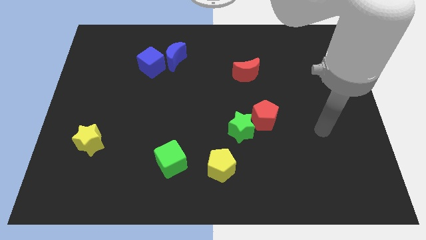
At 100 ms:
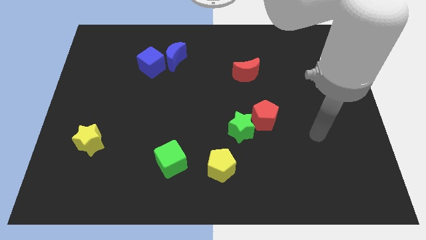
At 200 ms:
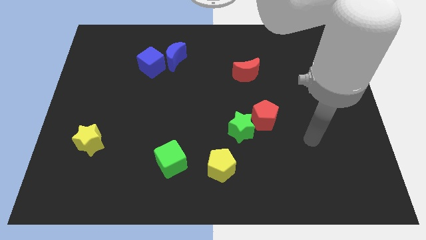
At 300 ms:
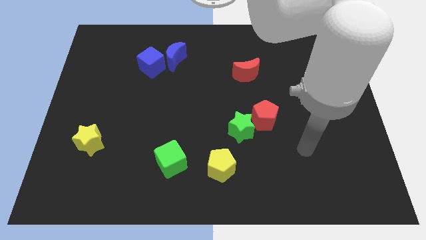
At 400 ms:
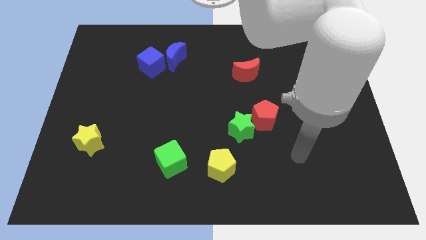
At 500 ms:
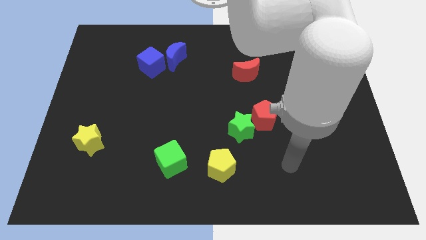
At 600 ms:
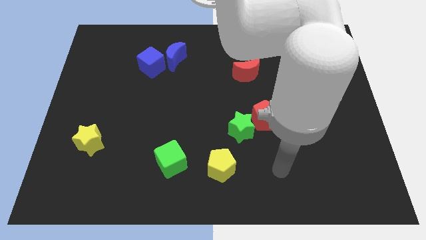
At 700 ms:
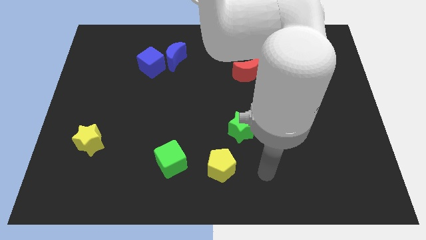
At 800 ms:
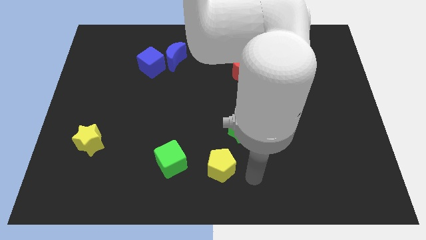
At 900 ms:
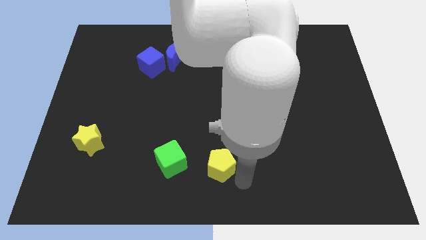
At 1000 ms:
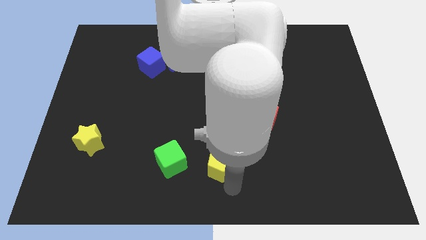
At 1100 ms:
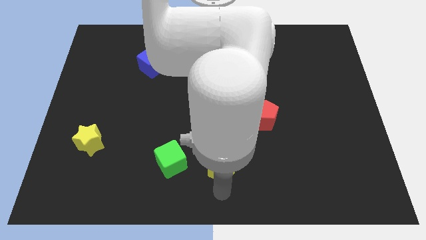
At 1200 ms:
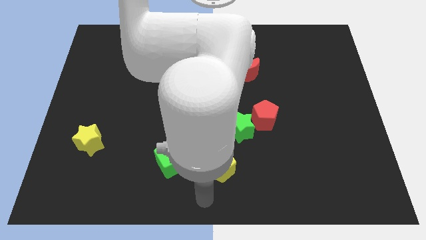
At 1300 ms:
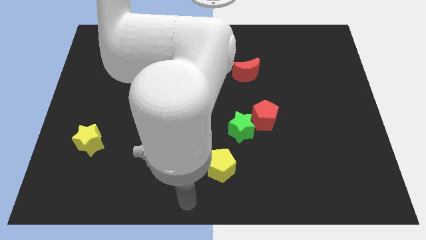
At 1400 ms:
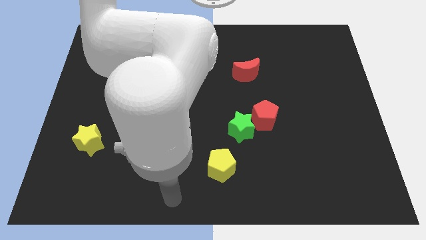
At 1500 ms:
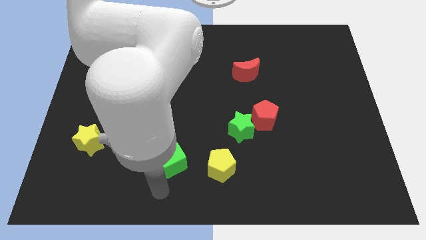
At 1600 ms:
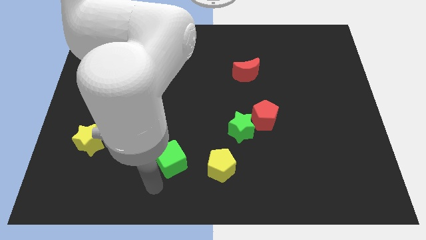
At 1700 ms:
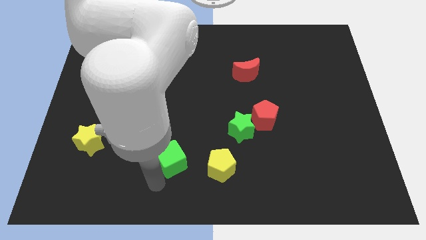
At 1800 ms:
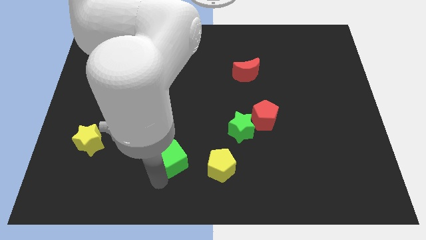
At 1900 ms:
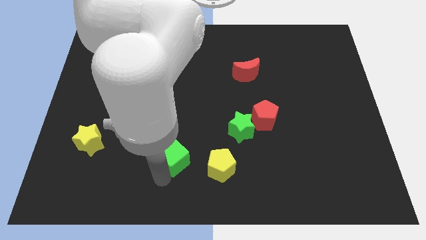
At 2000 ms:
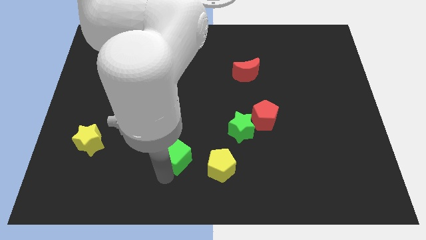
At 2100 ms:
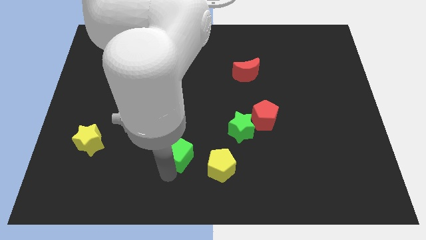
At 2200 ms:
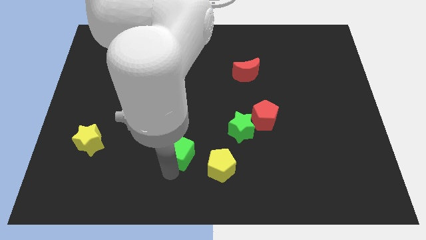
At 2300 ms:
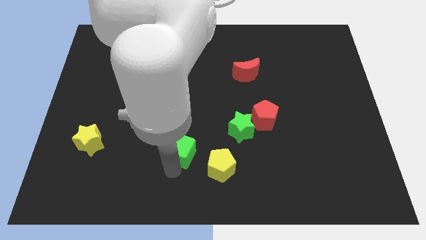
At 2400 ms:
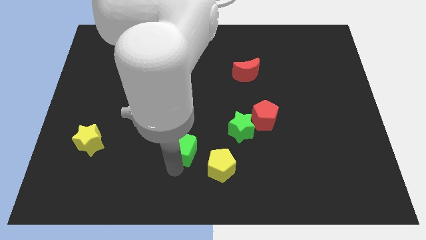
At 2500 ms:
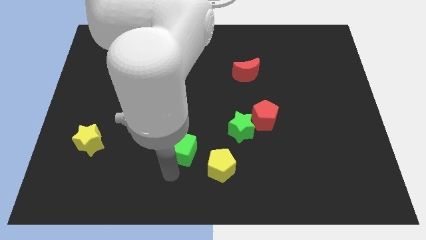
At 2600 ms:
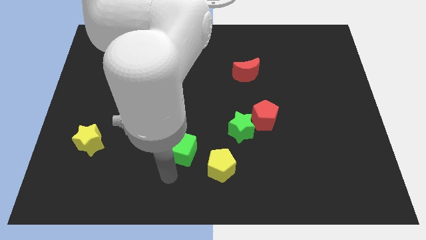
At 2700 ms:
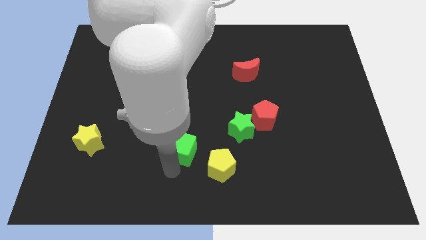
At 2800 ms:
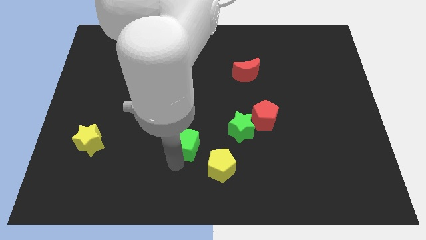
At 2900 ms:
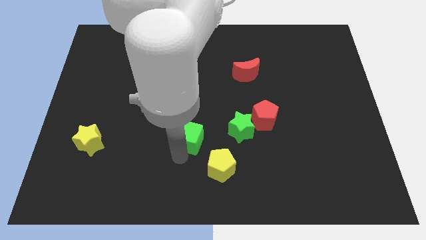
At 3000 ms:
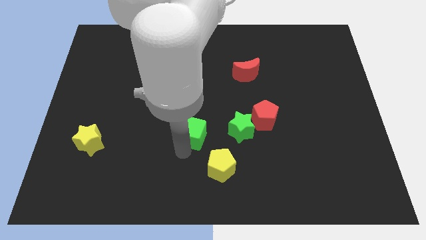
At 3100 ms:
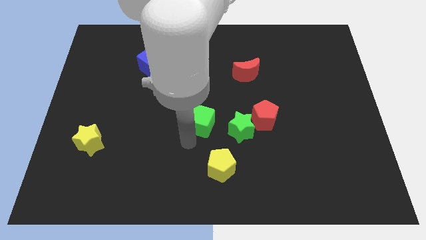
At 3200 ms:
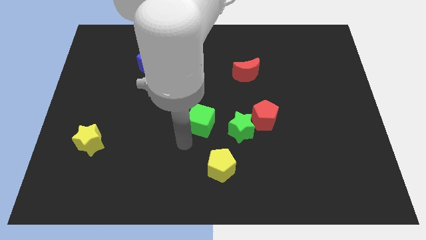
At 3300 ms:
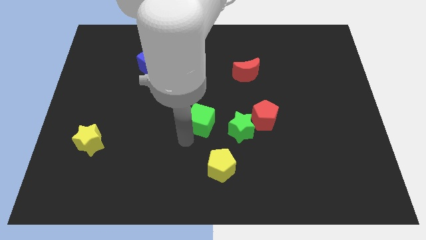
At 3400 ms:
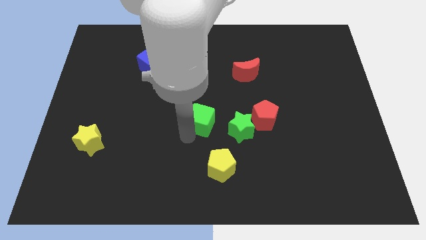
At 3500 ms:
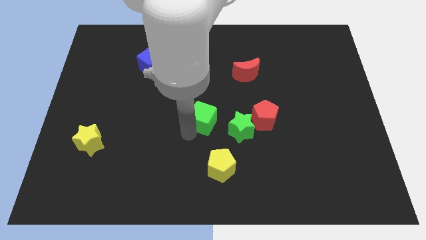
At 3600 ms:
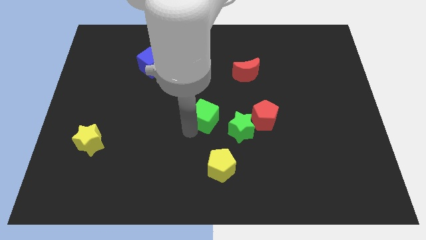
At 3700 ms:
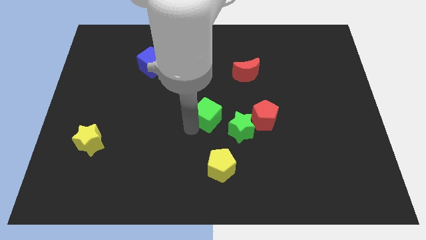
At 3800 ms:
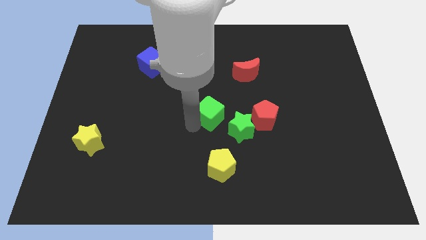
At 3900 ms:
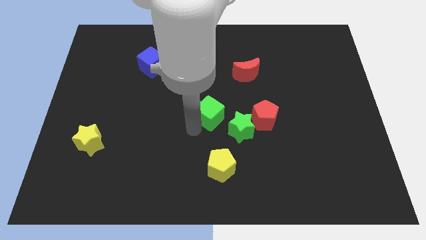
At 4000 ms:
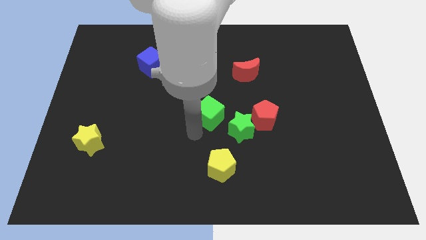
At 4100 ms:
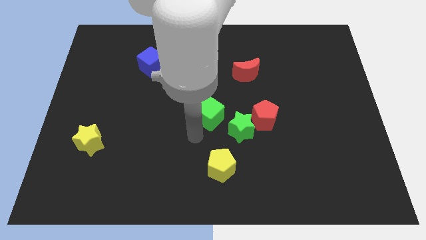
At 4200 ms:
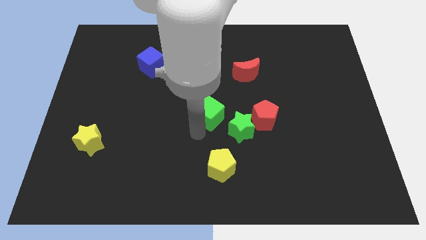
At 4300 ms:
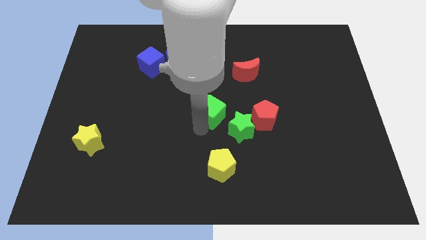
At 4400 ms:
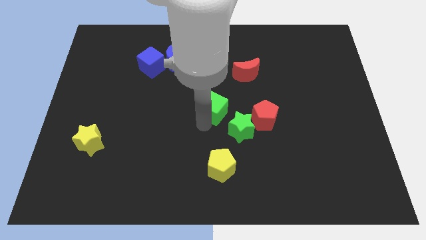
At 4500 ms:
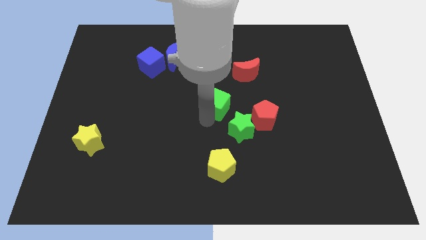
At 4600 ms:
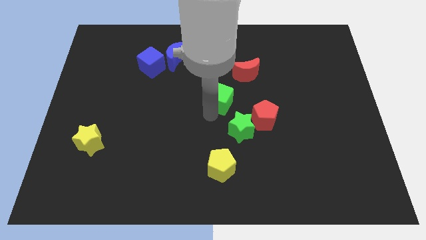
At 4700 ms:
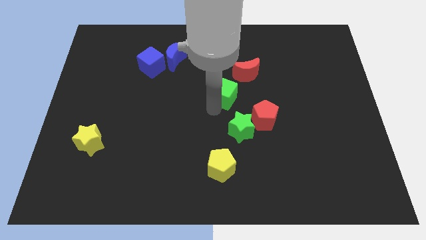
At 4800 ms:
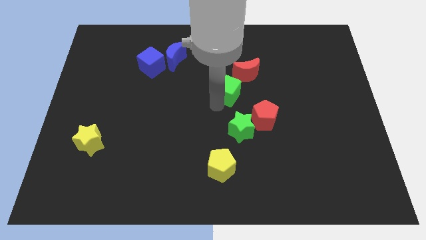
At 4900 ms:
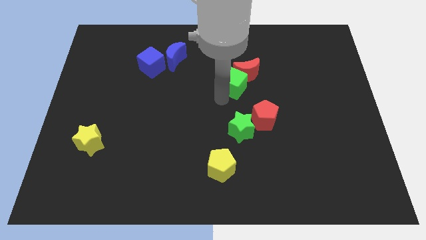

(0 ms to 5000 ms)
slide the green cube next to the red moon

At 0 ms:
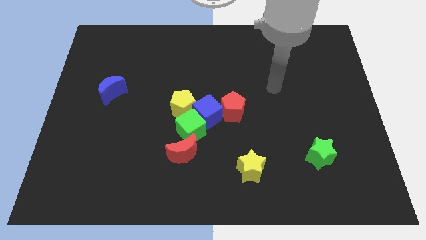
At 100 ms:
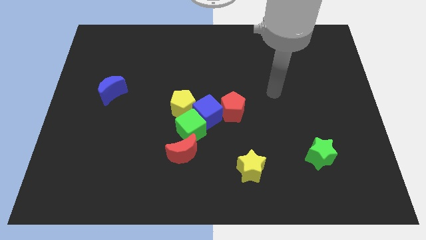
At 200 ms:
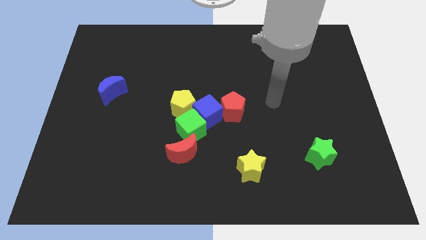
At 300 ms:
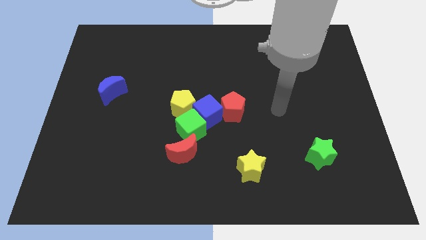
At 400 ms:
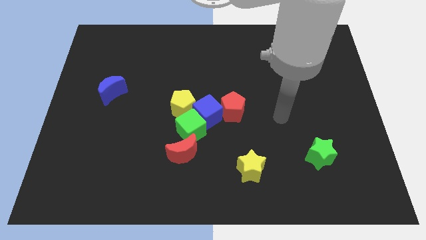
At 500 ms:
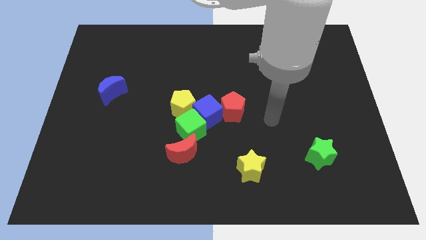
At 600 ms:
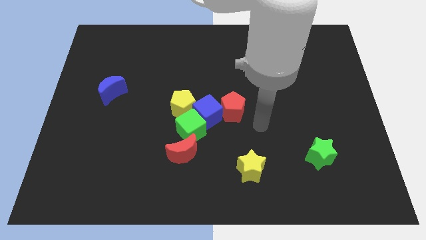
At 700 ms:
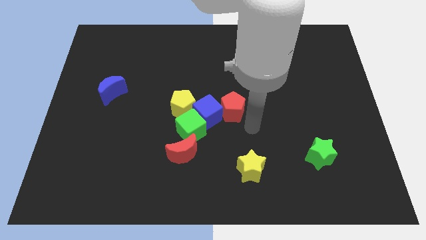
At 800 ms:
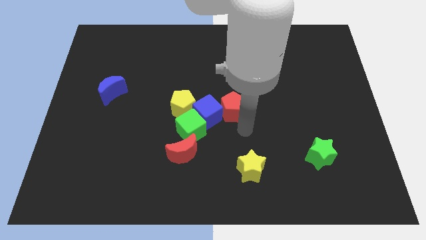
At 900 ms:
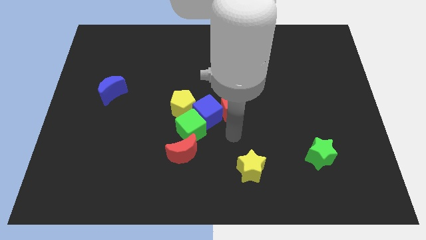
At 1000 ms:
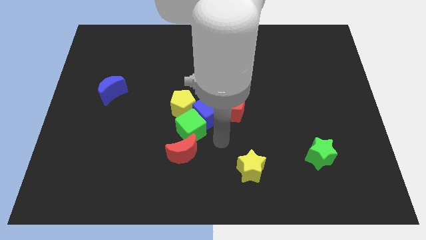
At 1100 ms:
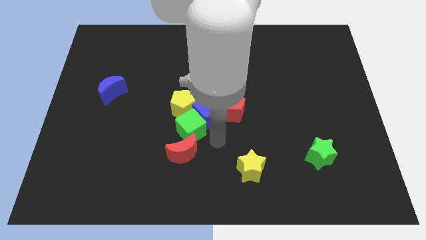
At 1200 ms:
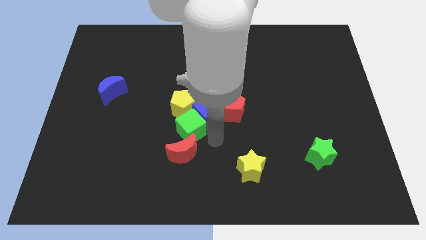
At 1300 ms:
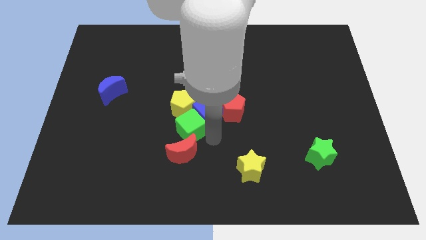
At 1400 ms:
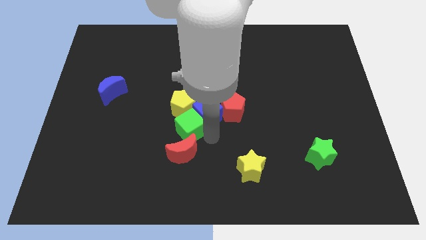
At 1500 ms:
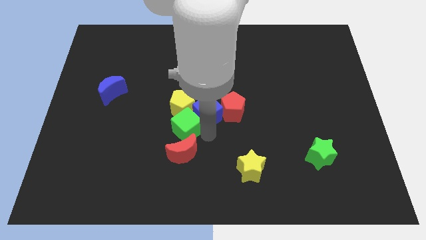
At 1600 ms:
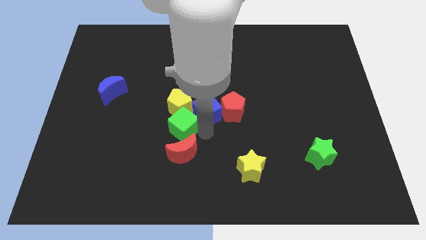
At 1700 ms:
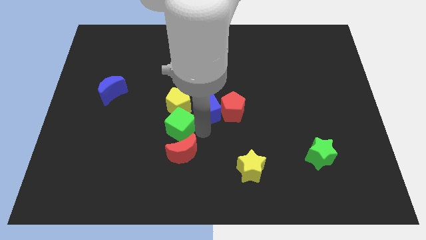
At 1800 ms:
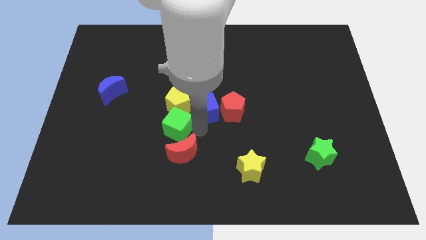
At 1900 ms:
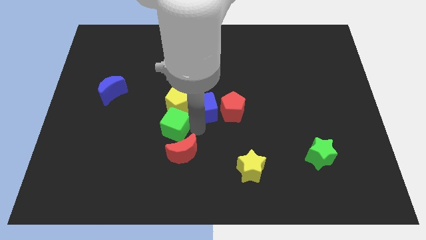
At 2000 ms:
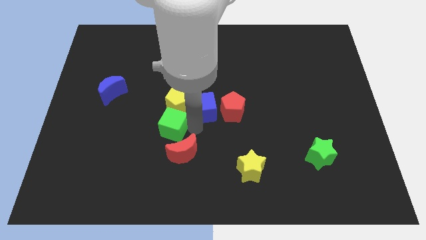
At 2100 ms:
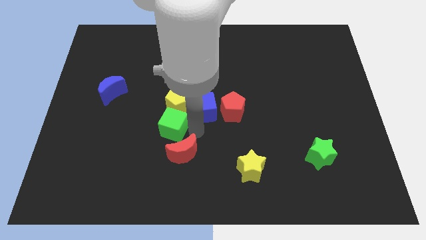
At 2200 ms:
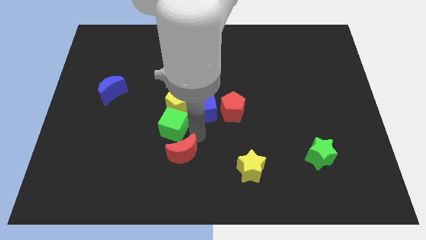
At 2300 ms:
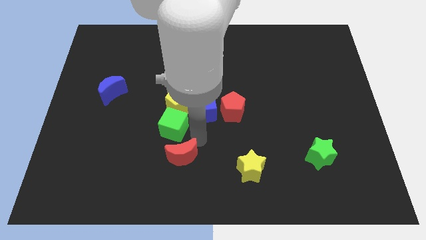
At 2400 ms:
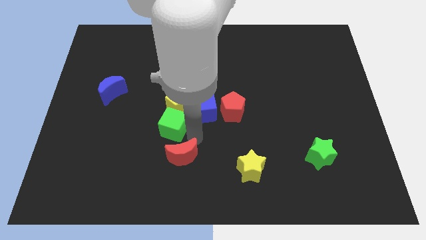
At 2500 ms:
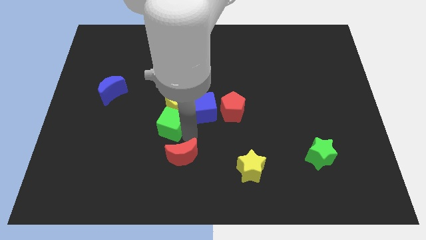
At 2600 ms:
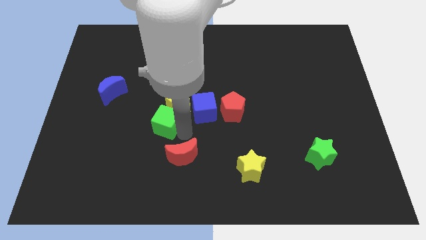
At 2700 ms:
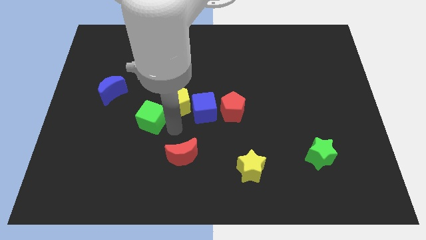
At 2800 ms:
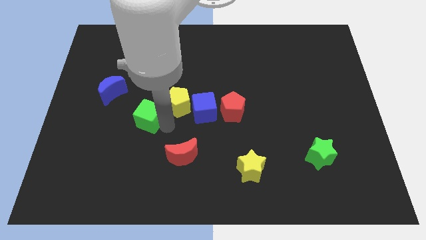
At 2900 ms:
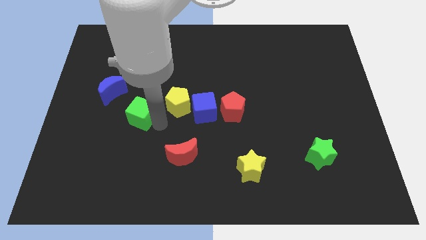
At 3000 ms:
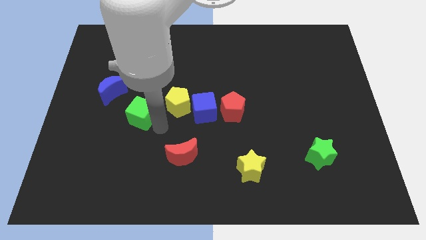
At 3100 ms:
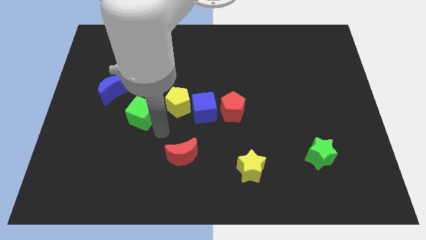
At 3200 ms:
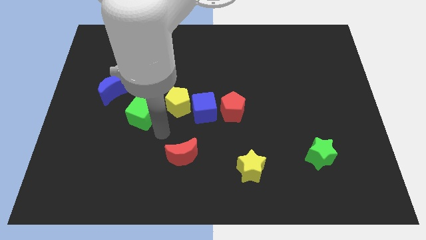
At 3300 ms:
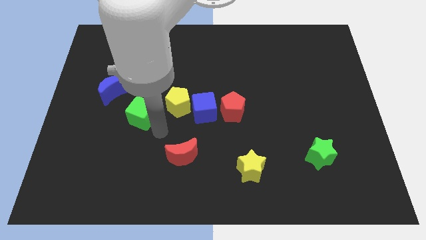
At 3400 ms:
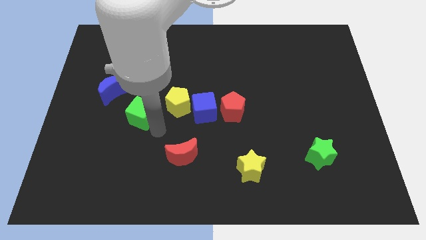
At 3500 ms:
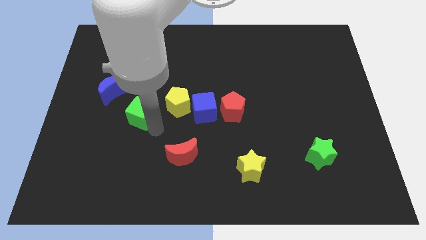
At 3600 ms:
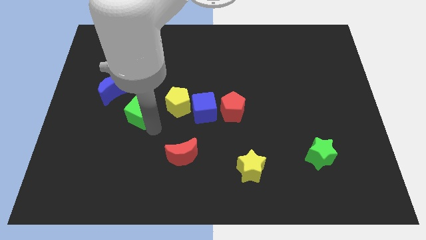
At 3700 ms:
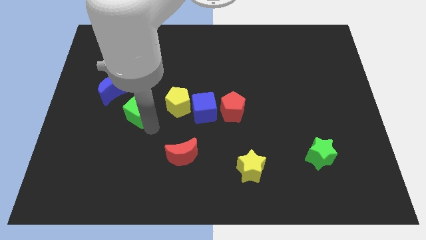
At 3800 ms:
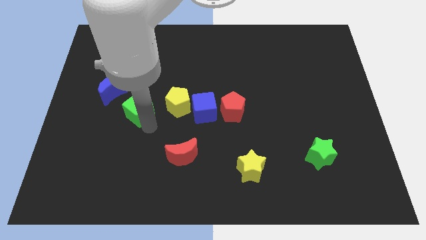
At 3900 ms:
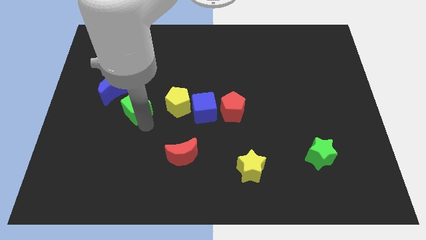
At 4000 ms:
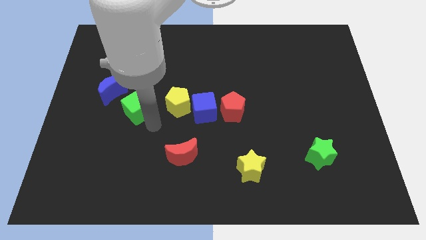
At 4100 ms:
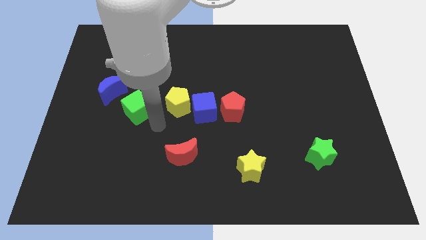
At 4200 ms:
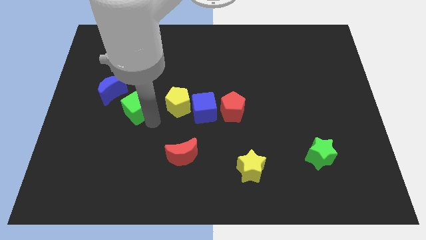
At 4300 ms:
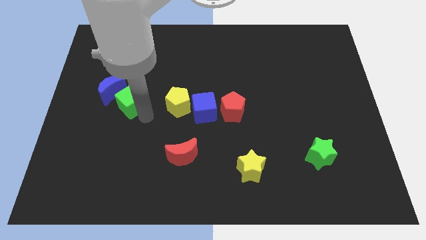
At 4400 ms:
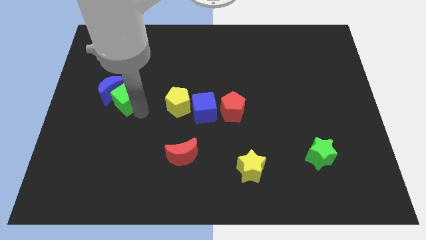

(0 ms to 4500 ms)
move the green cube next to the blue moon
